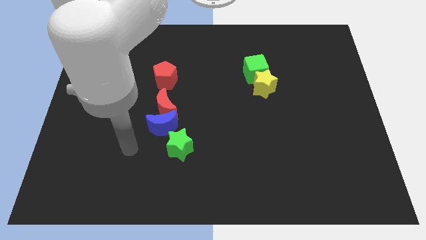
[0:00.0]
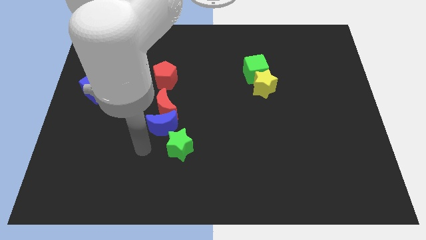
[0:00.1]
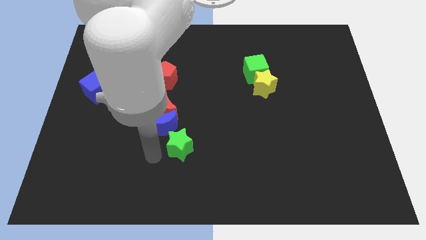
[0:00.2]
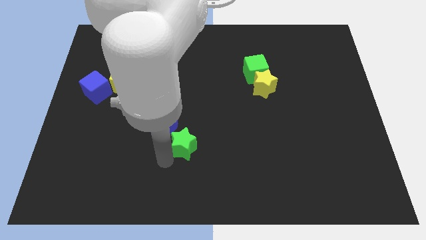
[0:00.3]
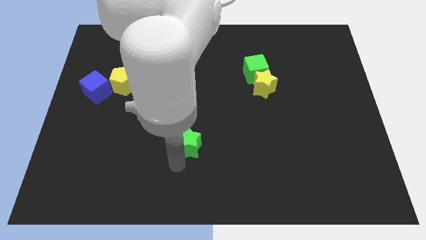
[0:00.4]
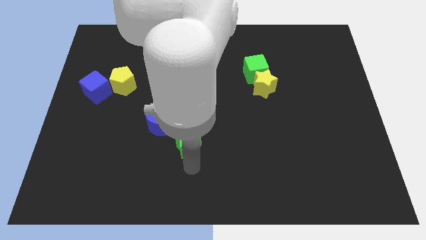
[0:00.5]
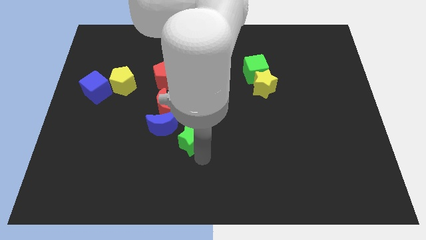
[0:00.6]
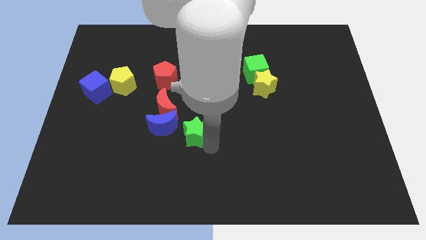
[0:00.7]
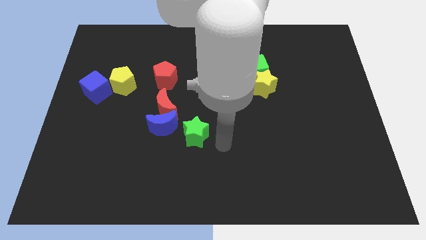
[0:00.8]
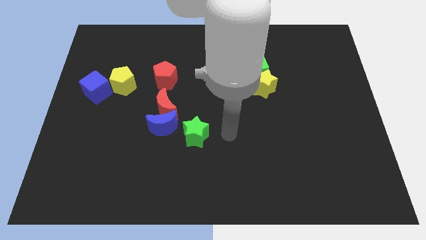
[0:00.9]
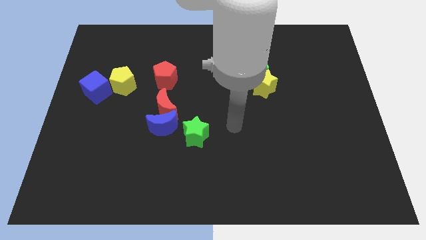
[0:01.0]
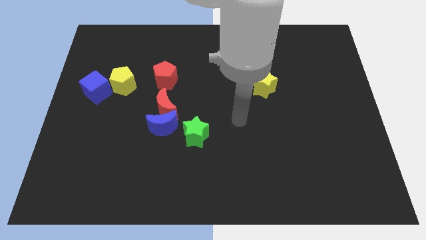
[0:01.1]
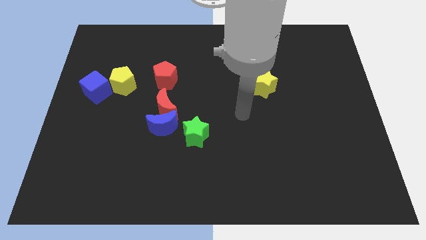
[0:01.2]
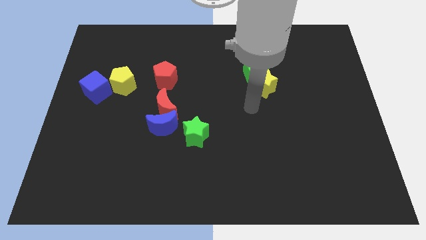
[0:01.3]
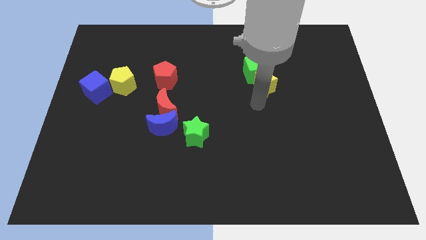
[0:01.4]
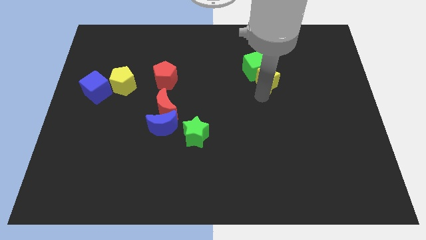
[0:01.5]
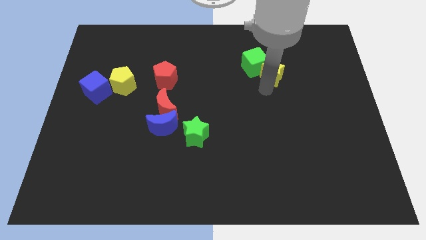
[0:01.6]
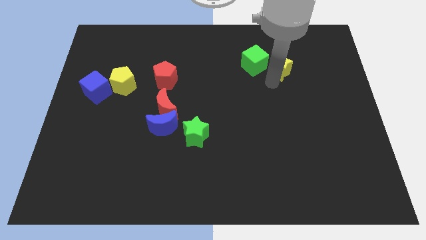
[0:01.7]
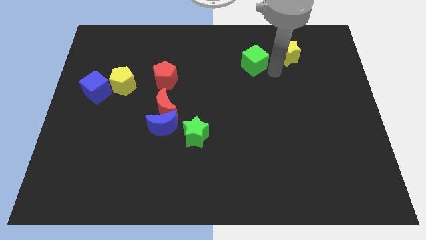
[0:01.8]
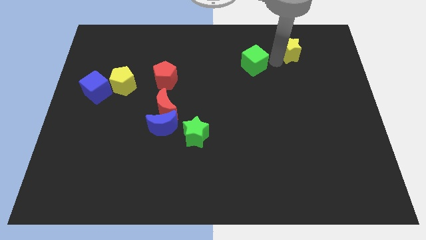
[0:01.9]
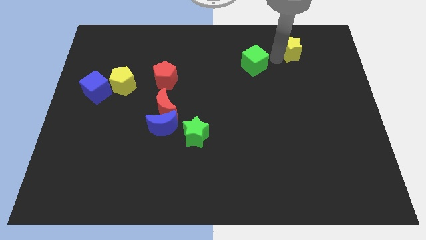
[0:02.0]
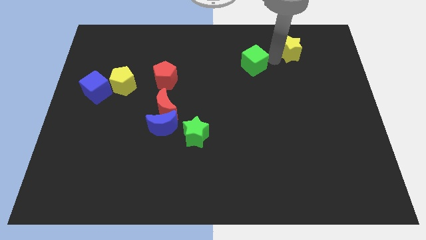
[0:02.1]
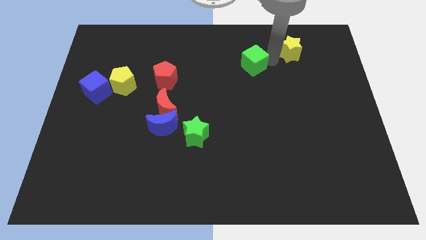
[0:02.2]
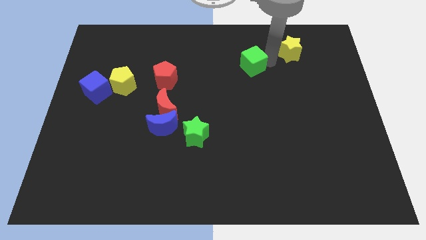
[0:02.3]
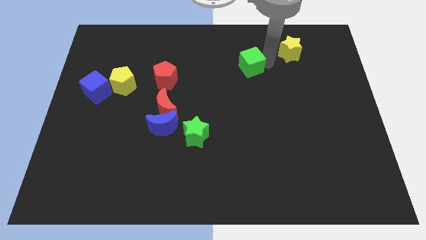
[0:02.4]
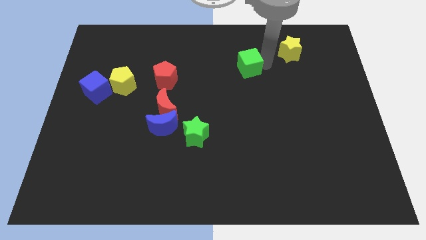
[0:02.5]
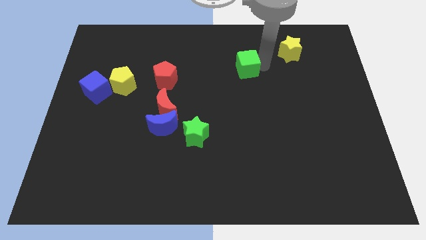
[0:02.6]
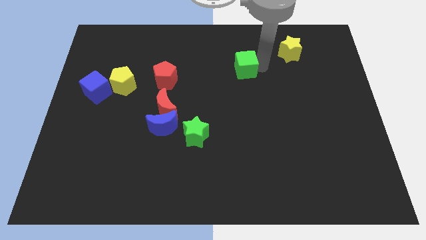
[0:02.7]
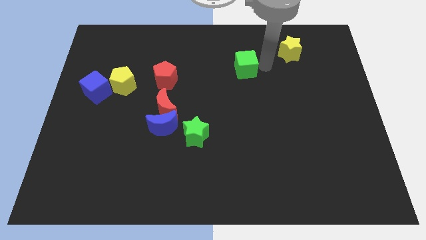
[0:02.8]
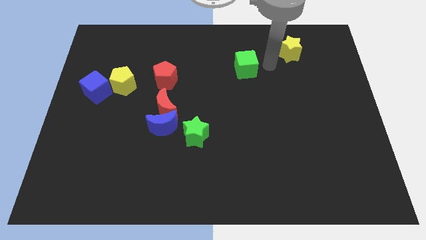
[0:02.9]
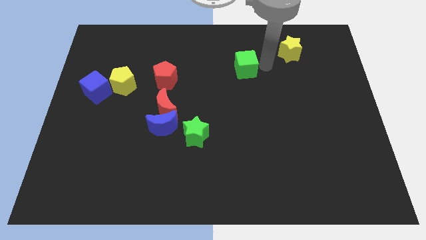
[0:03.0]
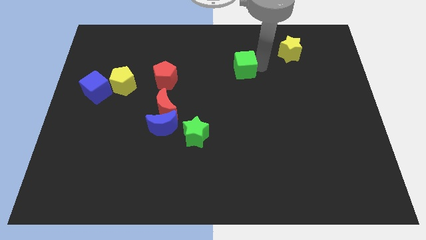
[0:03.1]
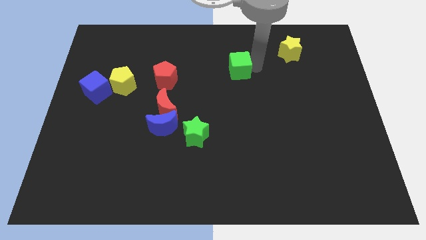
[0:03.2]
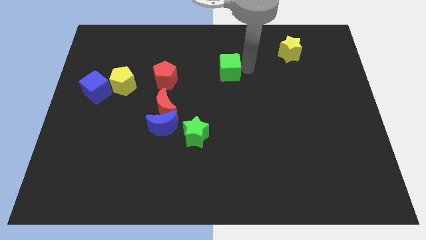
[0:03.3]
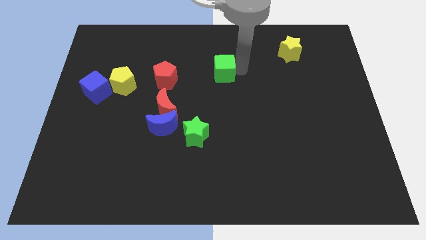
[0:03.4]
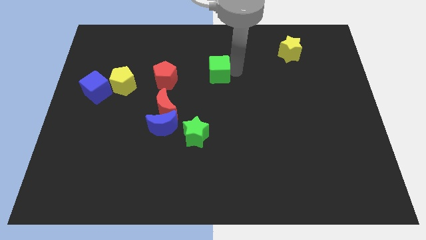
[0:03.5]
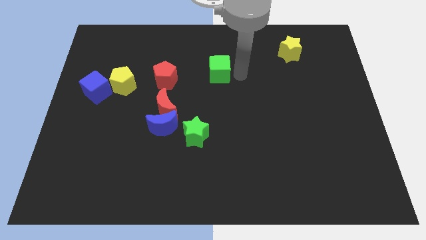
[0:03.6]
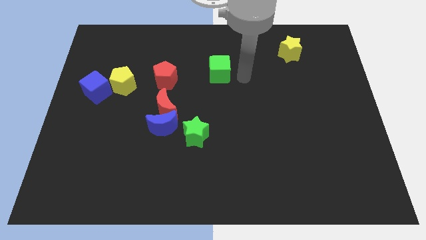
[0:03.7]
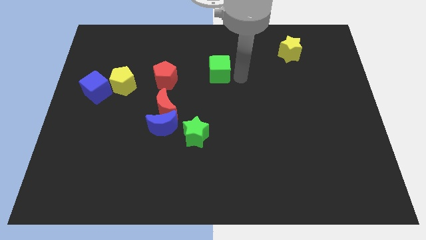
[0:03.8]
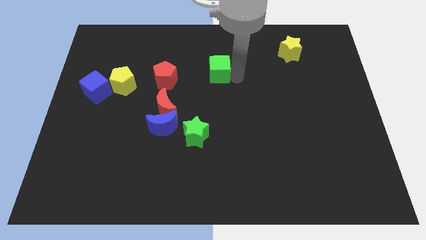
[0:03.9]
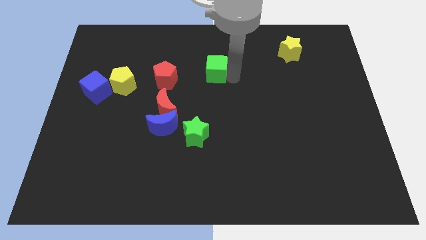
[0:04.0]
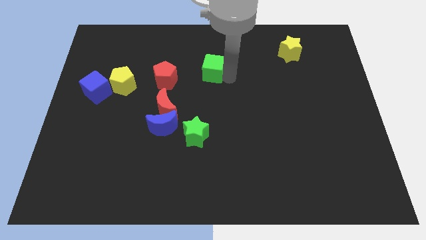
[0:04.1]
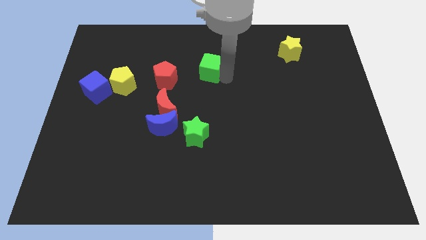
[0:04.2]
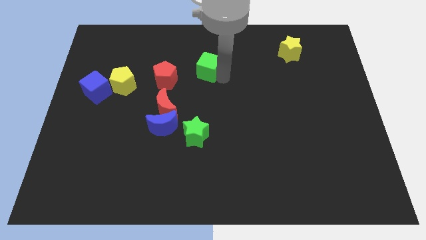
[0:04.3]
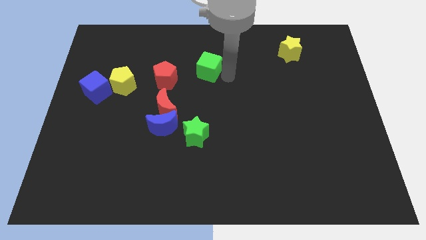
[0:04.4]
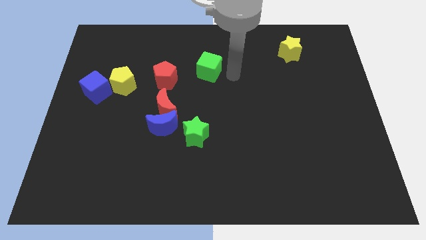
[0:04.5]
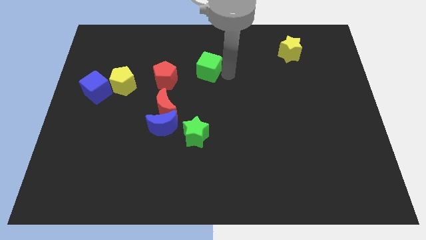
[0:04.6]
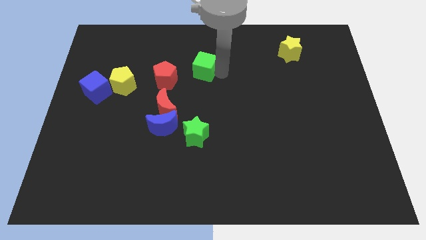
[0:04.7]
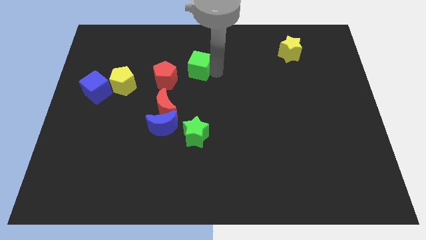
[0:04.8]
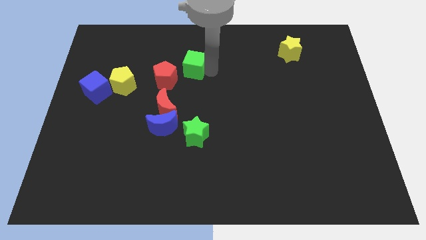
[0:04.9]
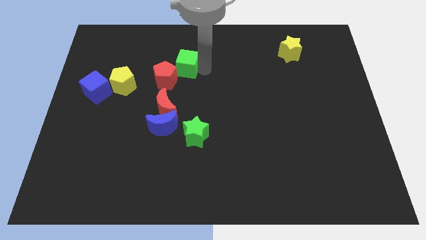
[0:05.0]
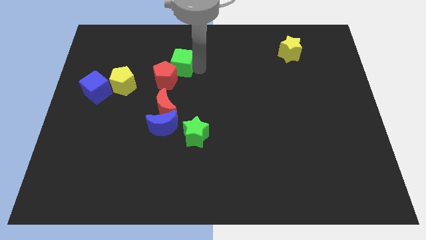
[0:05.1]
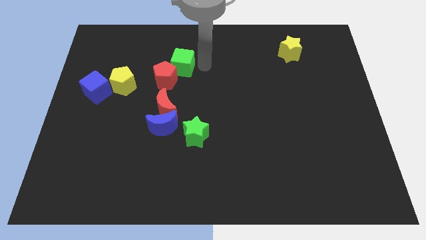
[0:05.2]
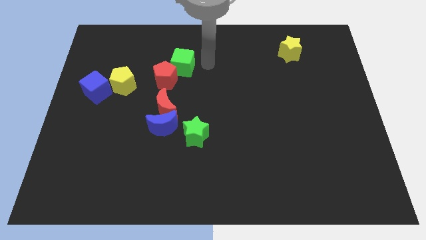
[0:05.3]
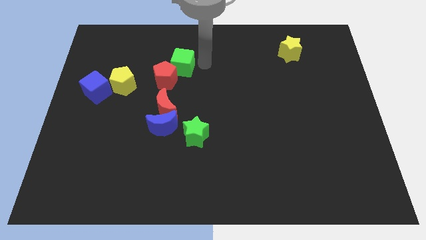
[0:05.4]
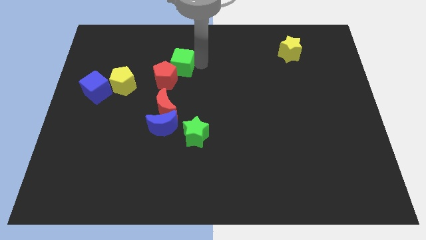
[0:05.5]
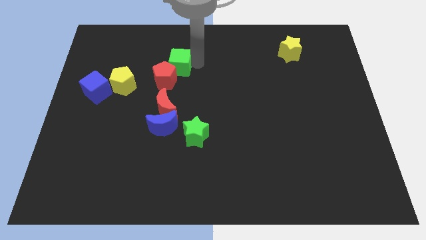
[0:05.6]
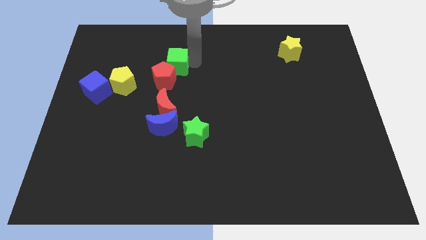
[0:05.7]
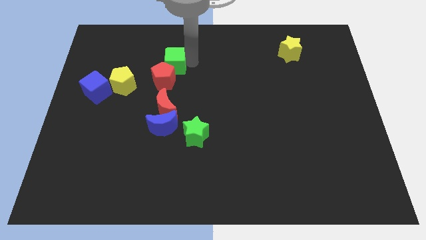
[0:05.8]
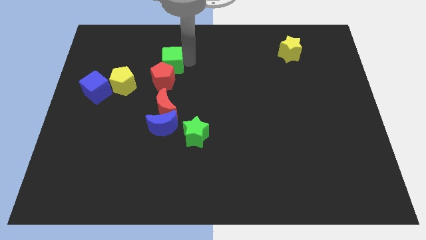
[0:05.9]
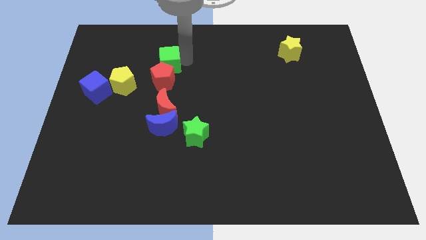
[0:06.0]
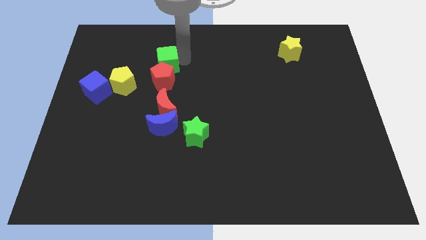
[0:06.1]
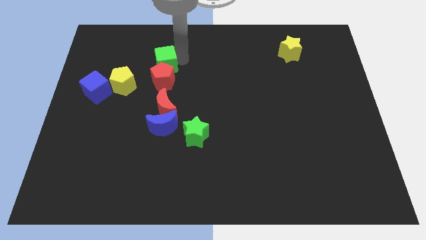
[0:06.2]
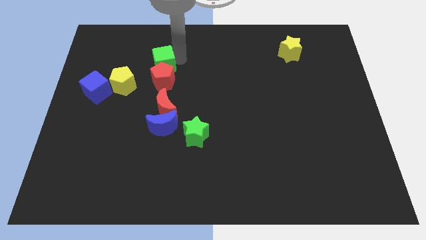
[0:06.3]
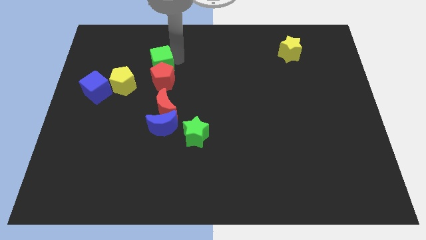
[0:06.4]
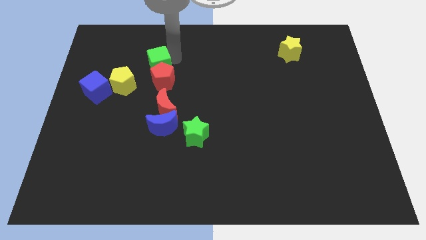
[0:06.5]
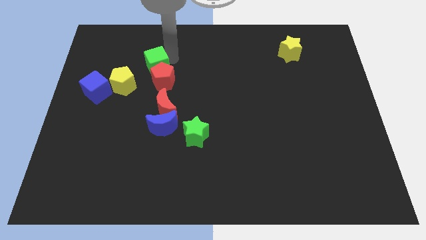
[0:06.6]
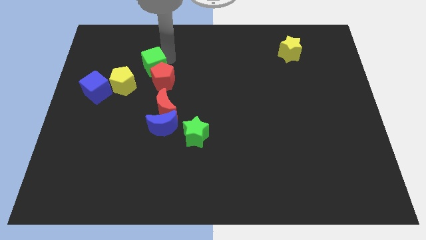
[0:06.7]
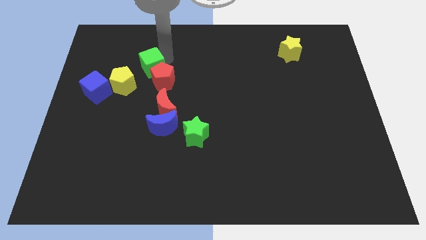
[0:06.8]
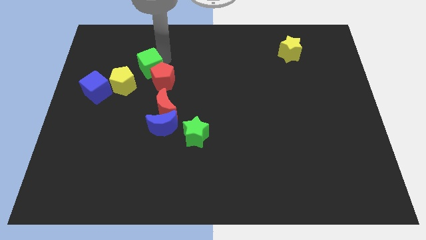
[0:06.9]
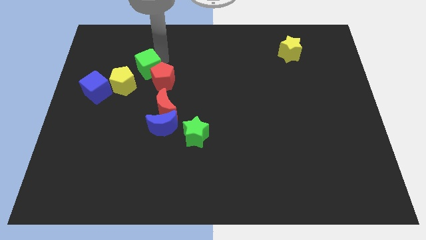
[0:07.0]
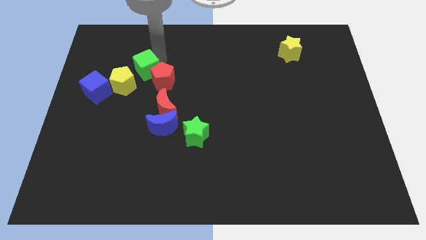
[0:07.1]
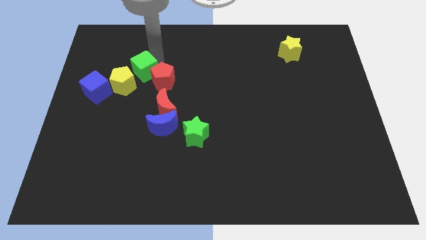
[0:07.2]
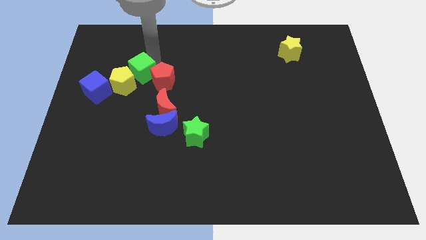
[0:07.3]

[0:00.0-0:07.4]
put the green cube next to the yellow pentagon
